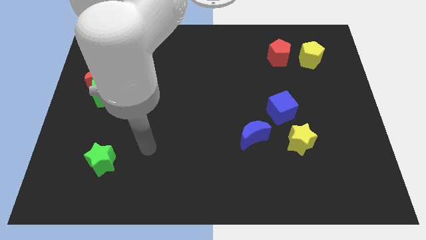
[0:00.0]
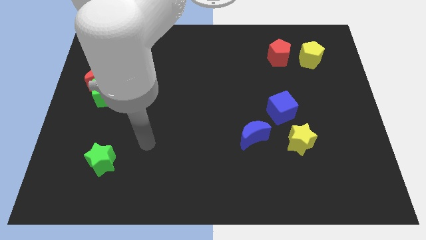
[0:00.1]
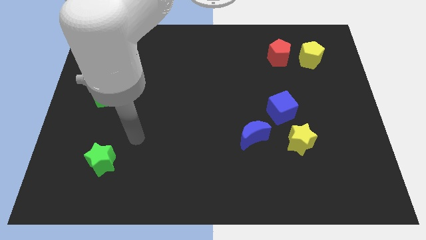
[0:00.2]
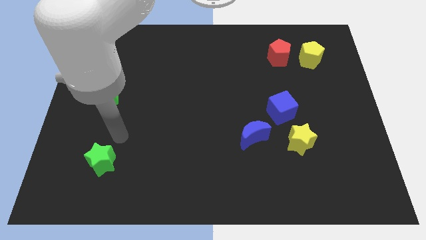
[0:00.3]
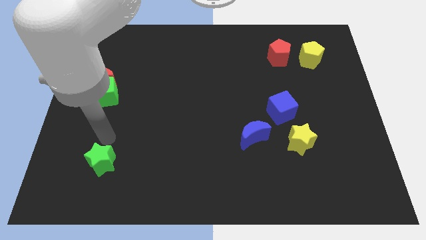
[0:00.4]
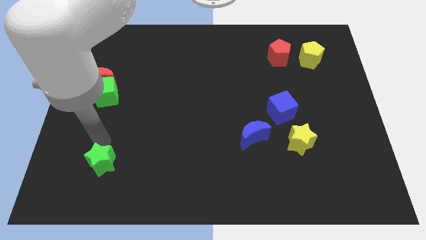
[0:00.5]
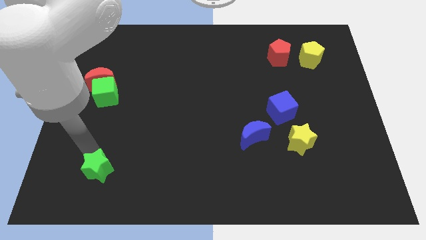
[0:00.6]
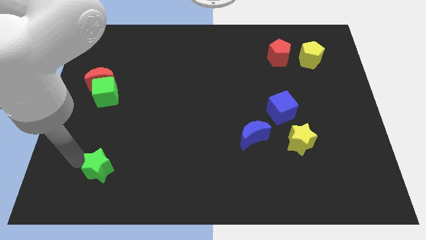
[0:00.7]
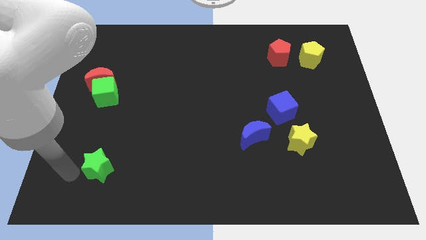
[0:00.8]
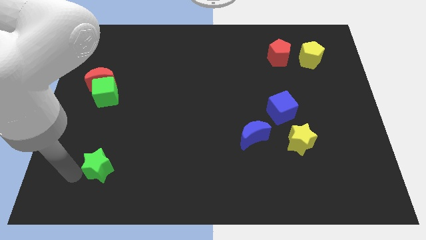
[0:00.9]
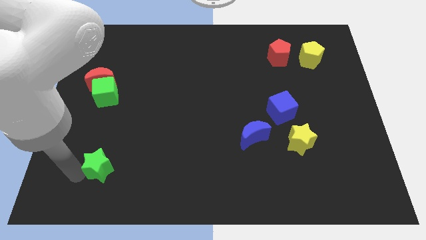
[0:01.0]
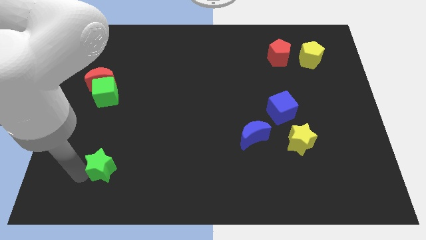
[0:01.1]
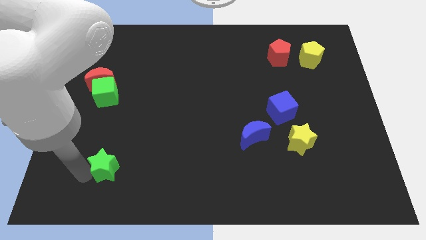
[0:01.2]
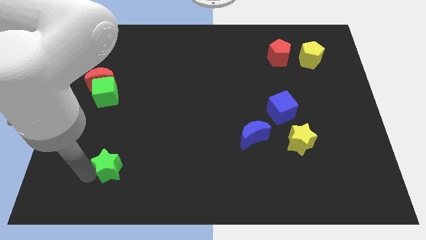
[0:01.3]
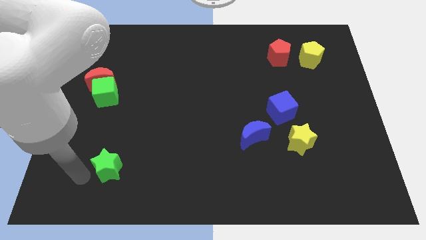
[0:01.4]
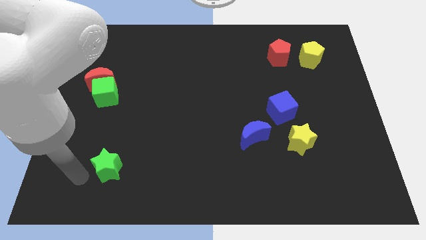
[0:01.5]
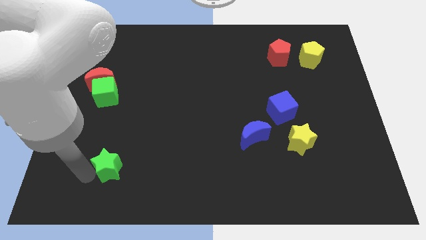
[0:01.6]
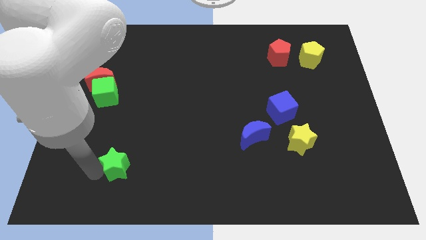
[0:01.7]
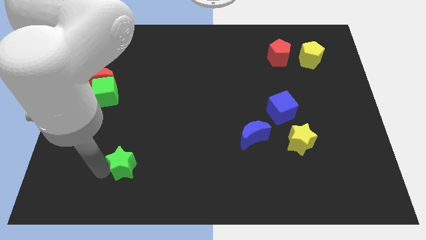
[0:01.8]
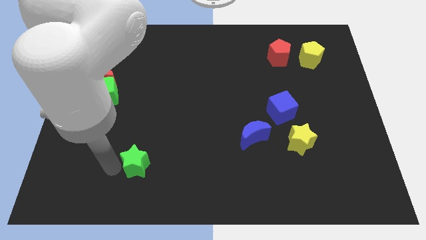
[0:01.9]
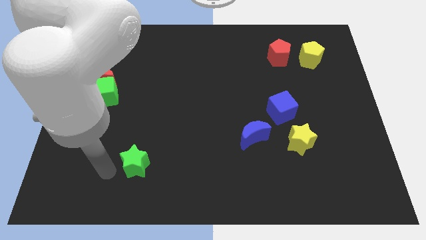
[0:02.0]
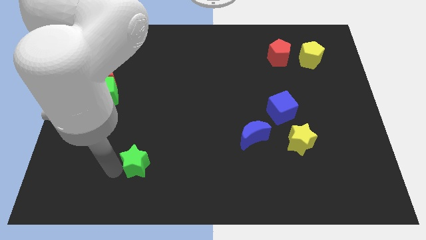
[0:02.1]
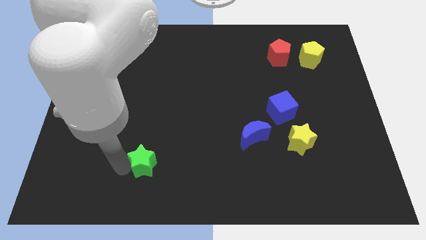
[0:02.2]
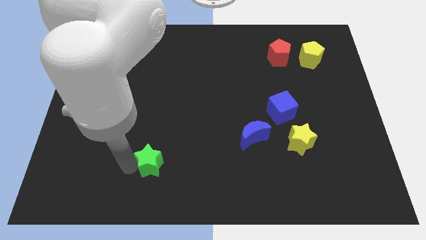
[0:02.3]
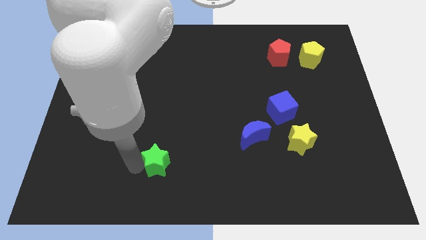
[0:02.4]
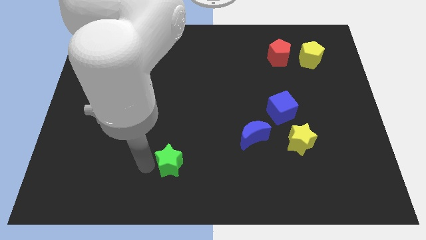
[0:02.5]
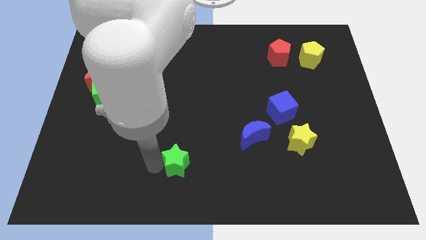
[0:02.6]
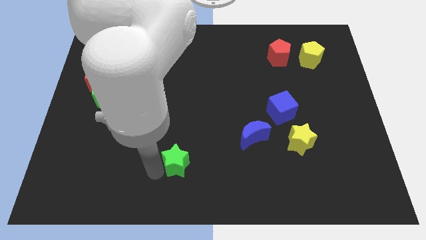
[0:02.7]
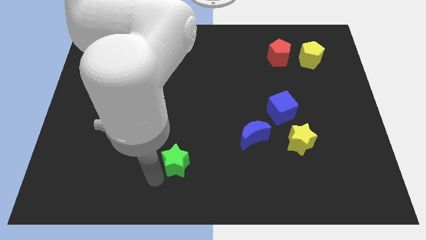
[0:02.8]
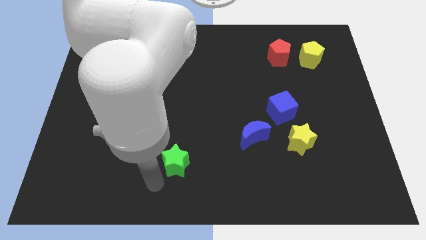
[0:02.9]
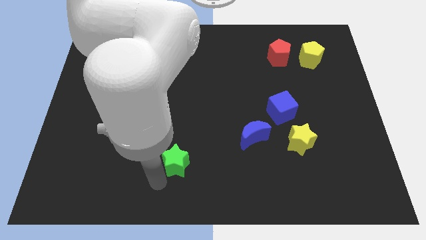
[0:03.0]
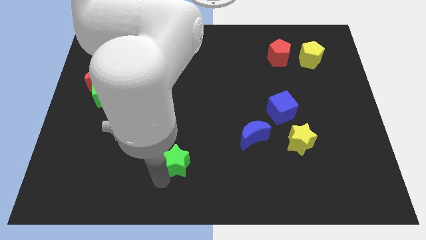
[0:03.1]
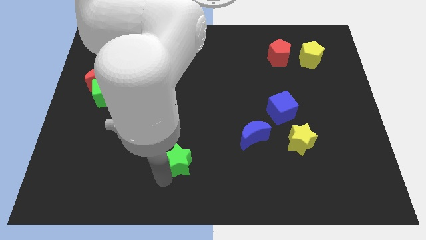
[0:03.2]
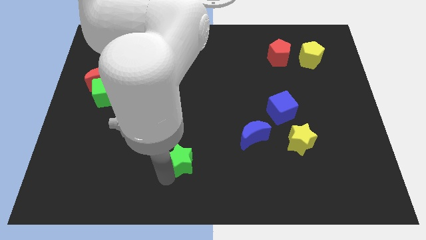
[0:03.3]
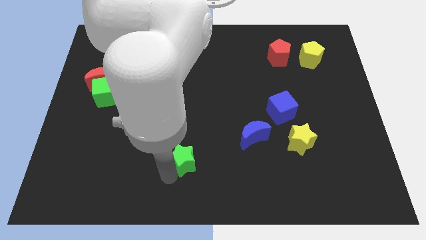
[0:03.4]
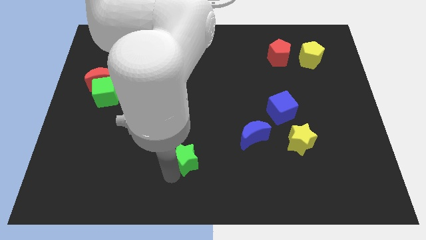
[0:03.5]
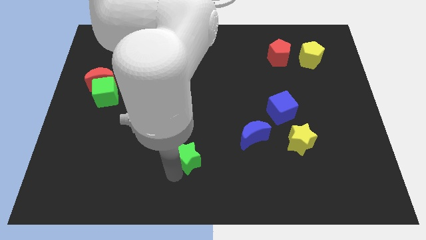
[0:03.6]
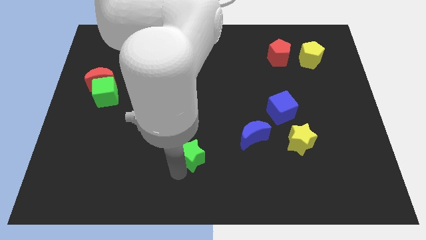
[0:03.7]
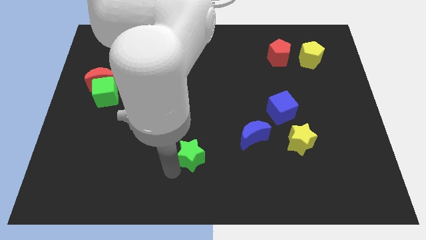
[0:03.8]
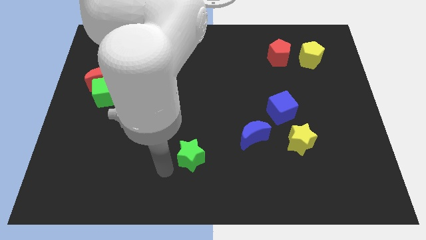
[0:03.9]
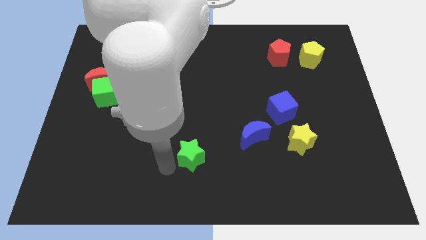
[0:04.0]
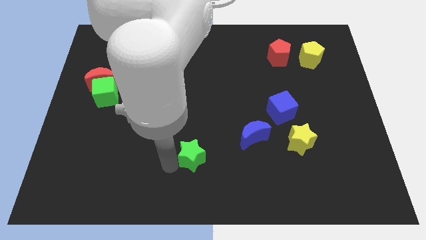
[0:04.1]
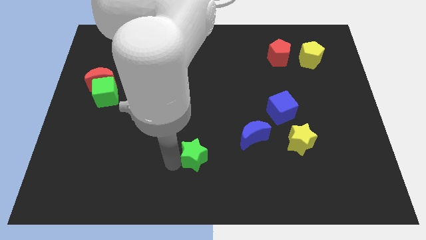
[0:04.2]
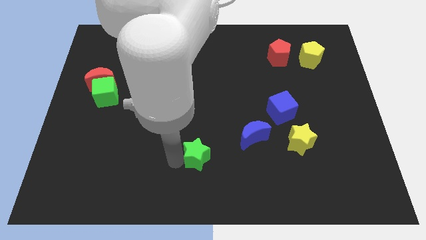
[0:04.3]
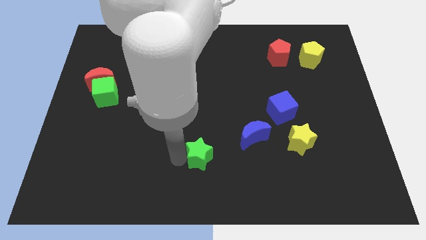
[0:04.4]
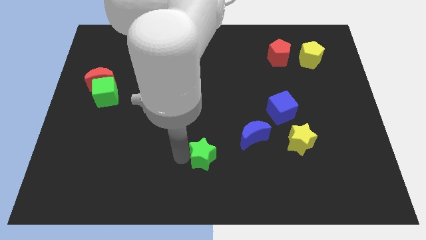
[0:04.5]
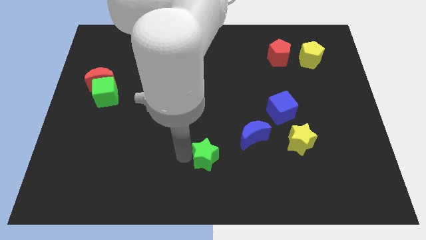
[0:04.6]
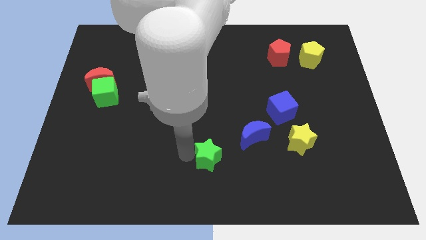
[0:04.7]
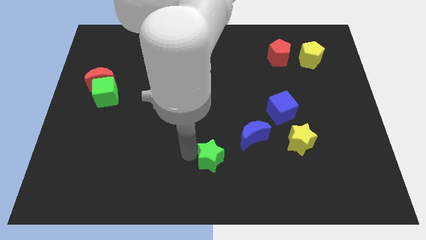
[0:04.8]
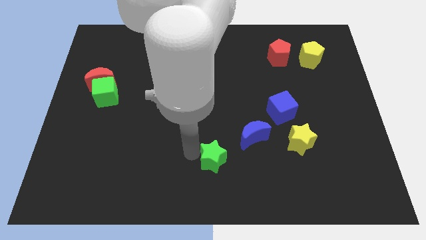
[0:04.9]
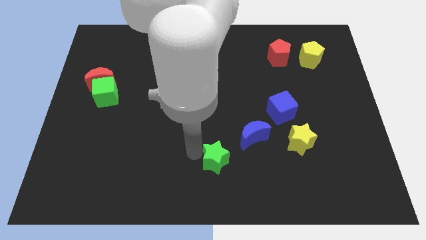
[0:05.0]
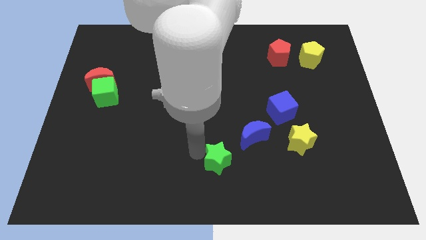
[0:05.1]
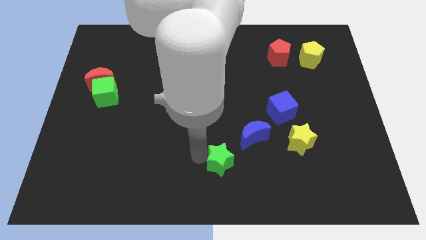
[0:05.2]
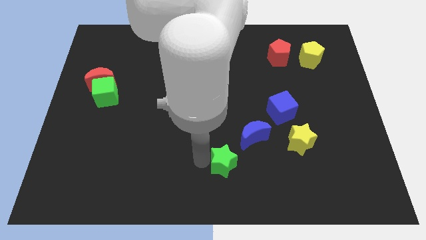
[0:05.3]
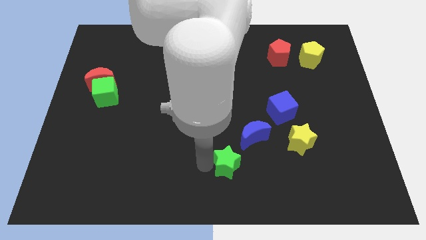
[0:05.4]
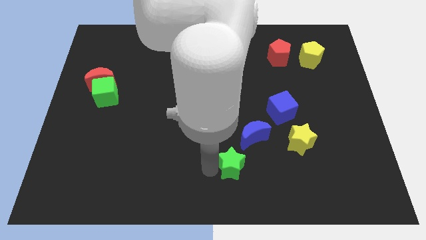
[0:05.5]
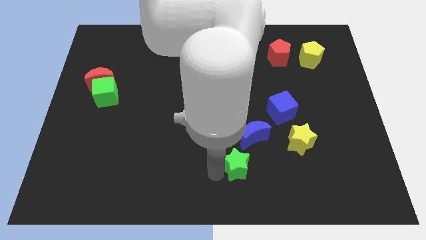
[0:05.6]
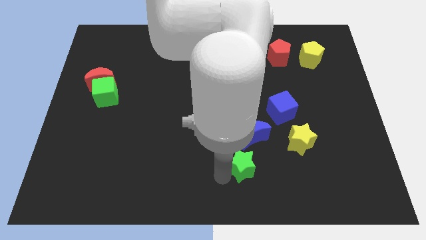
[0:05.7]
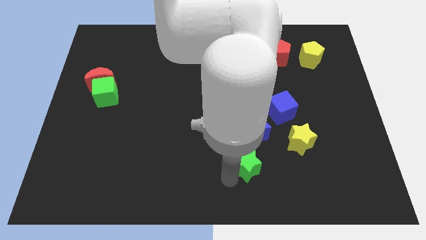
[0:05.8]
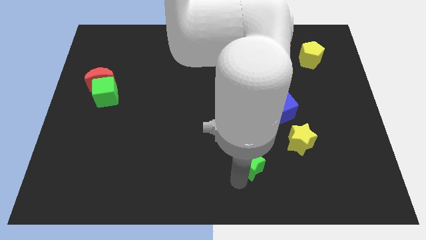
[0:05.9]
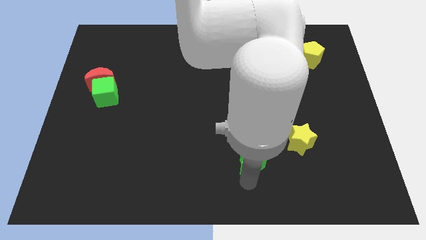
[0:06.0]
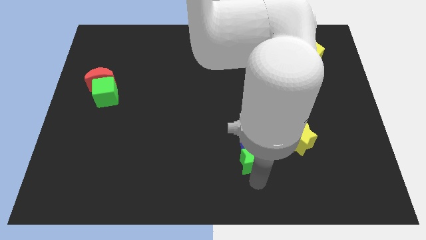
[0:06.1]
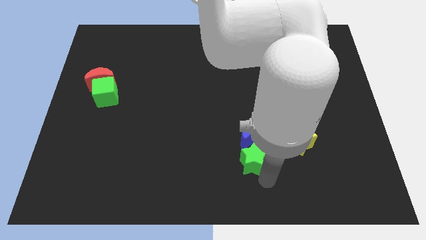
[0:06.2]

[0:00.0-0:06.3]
move the green star next to the blue moon

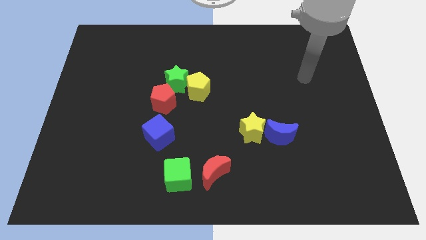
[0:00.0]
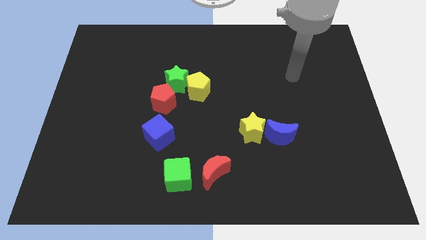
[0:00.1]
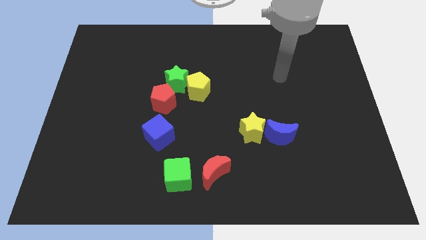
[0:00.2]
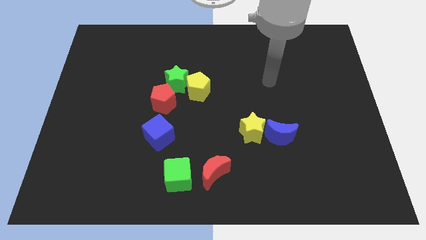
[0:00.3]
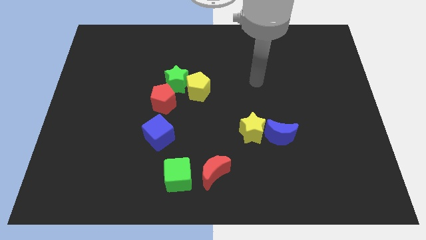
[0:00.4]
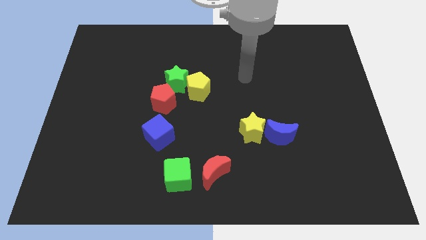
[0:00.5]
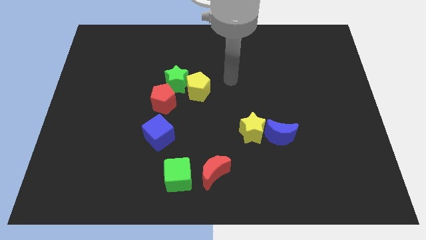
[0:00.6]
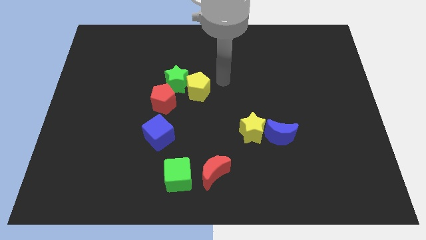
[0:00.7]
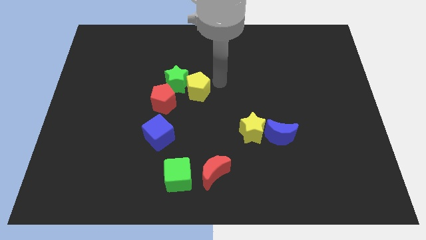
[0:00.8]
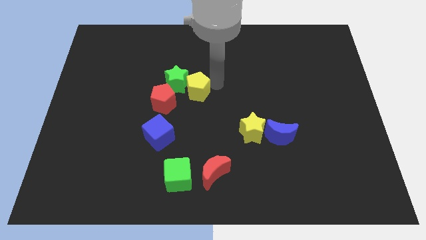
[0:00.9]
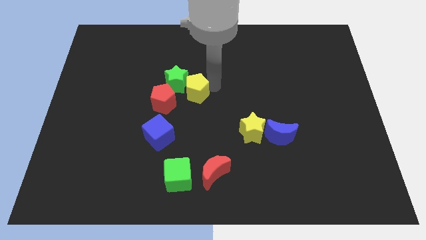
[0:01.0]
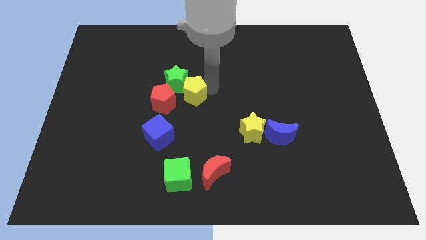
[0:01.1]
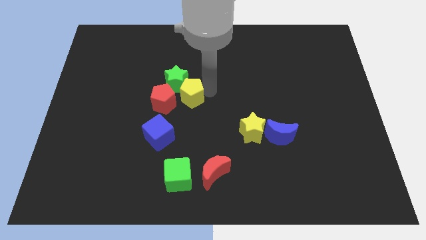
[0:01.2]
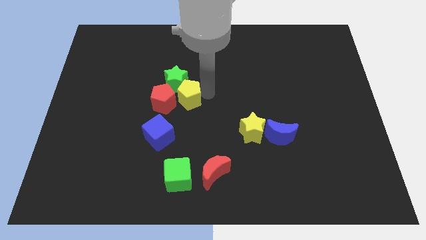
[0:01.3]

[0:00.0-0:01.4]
put the yellow pentagon towards the red pentagon

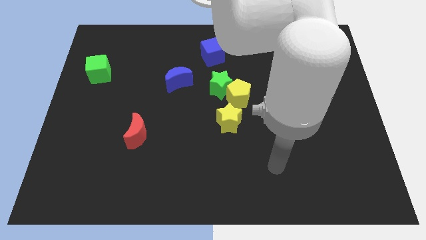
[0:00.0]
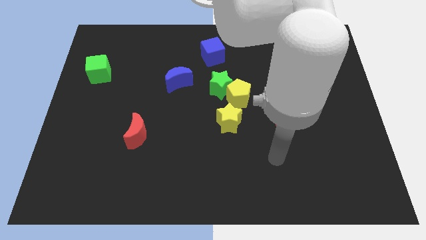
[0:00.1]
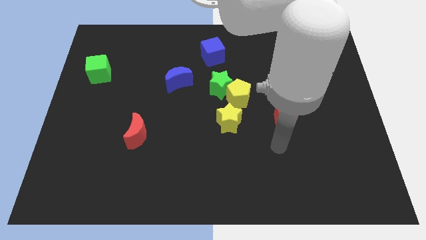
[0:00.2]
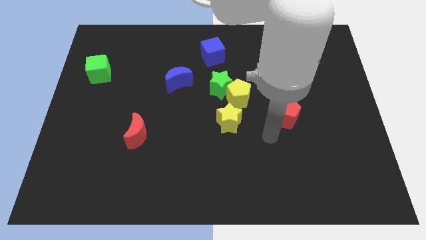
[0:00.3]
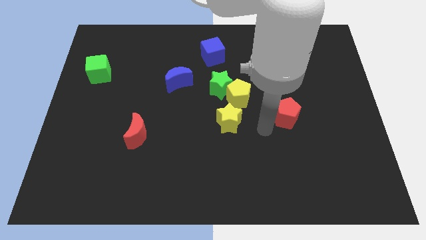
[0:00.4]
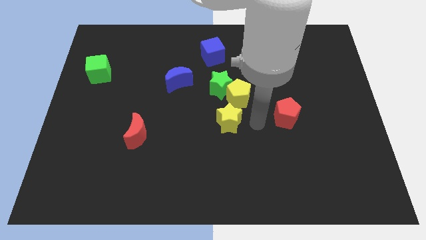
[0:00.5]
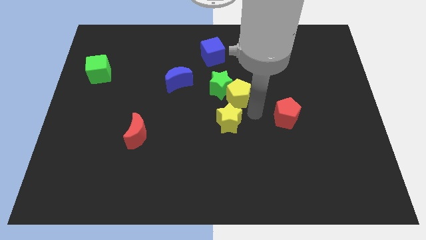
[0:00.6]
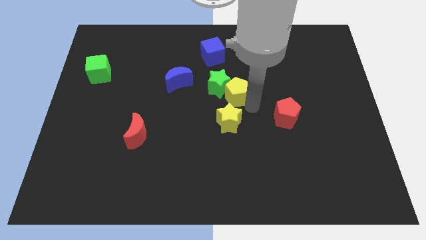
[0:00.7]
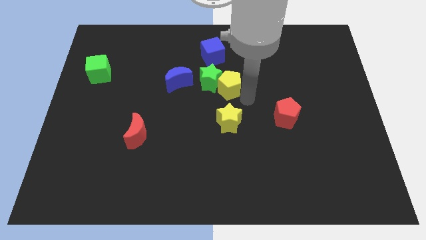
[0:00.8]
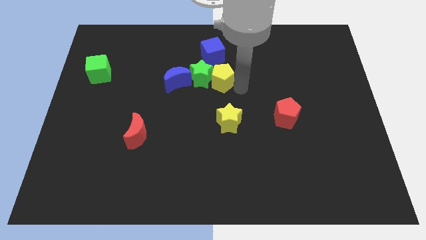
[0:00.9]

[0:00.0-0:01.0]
slide the green star to the blue moon
